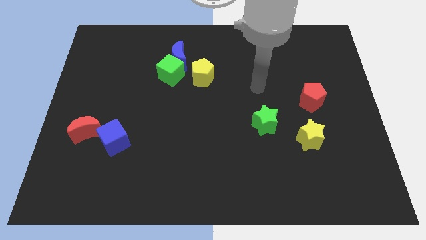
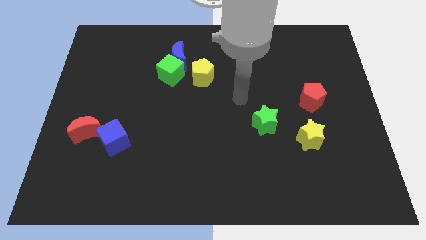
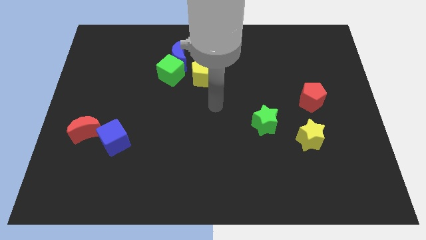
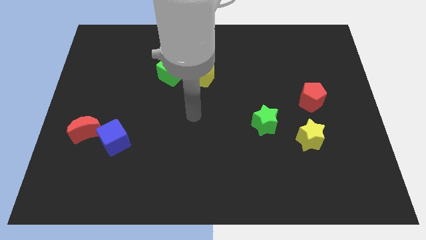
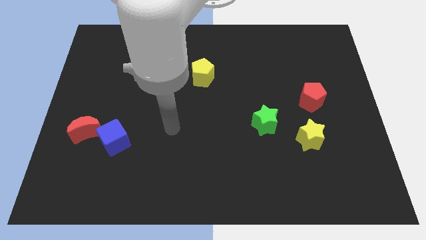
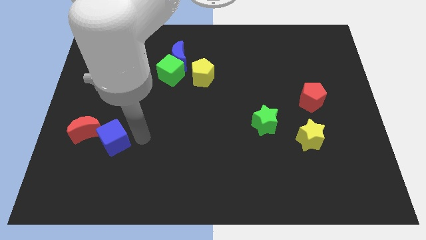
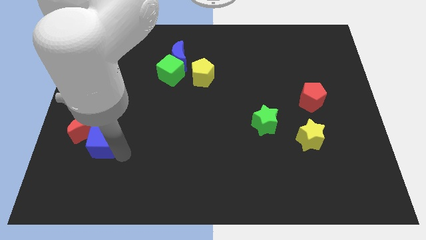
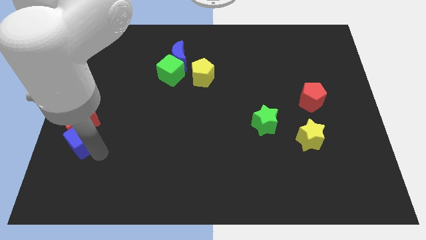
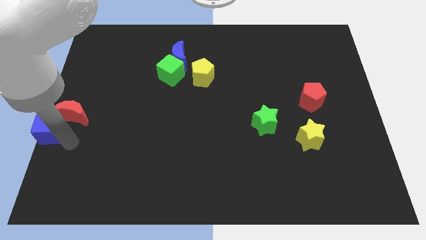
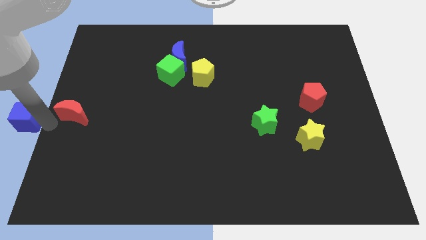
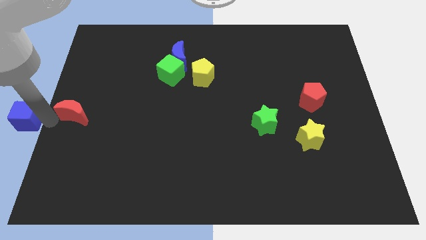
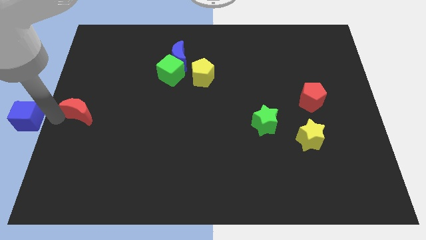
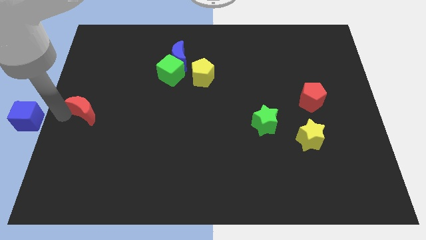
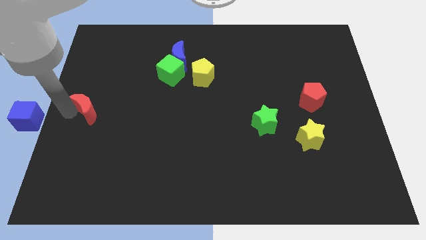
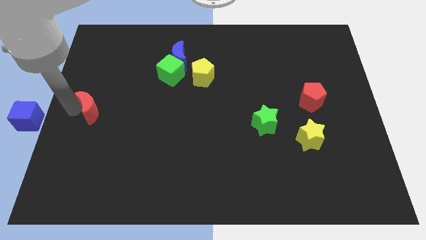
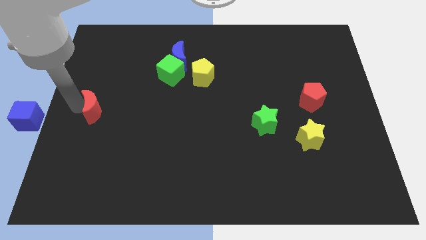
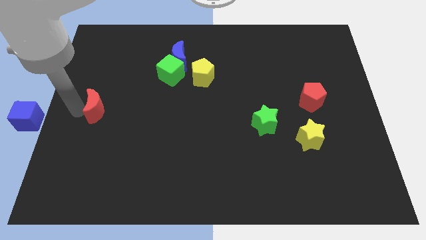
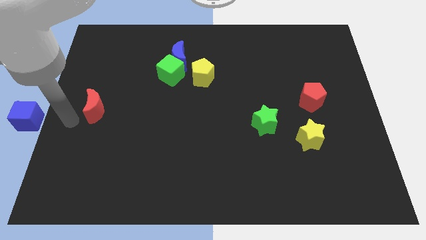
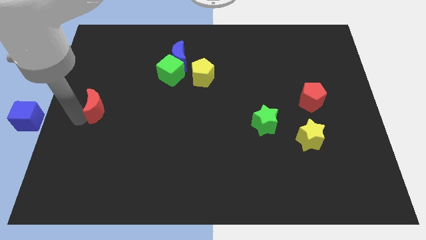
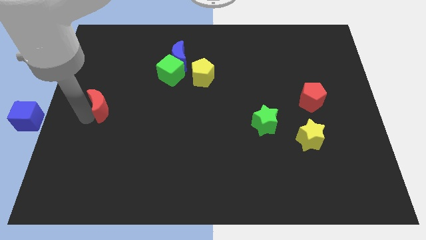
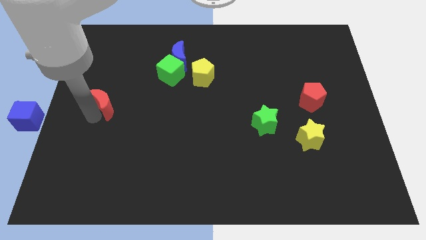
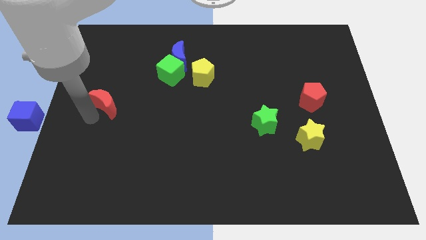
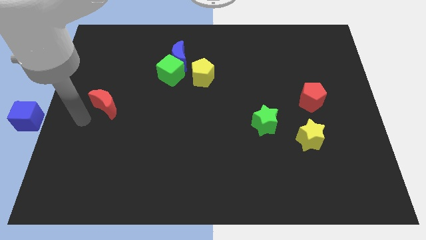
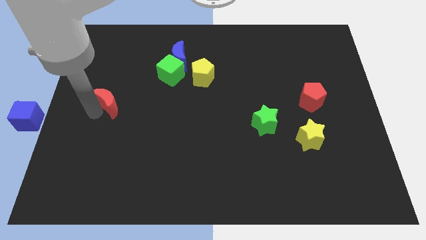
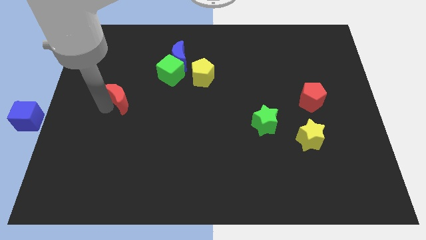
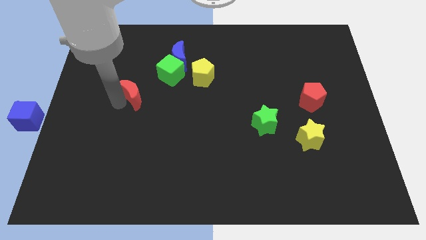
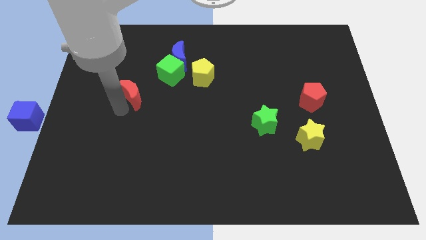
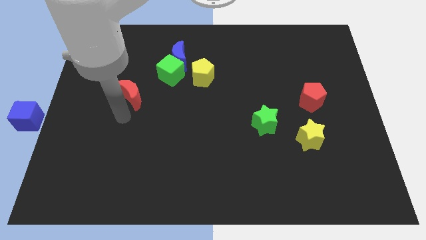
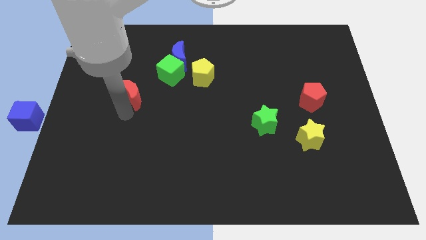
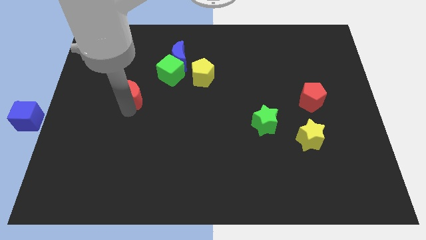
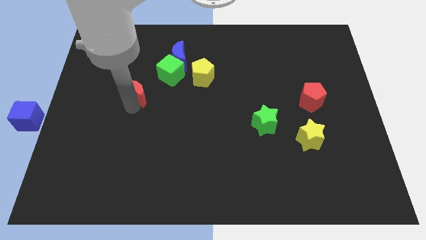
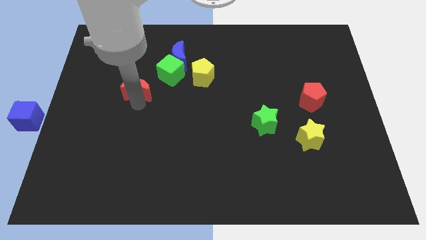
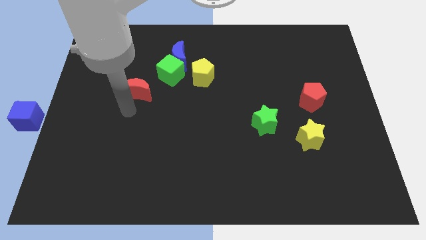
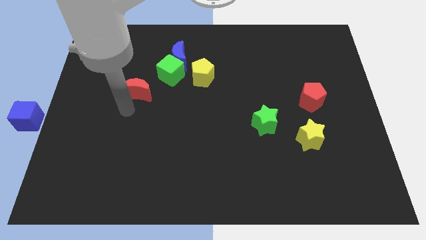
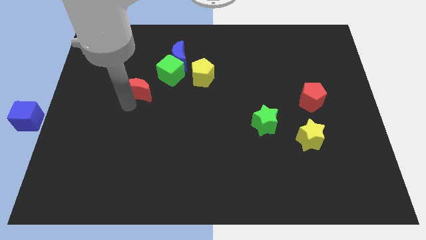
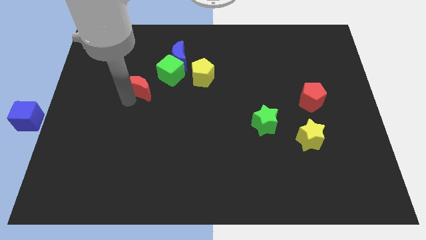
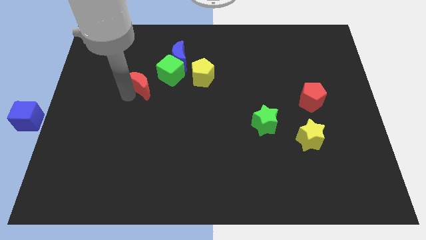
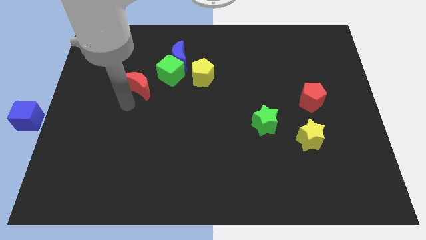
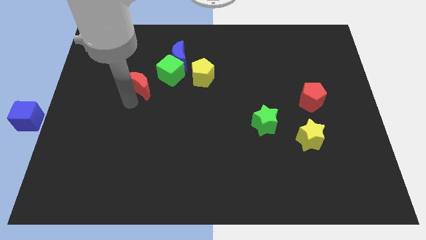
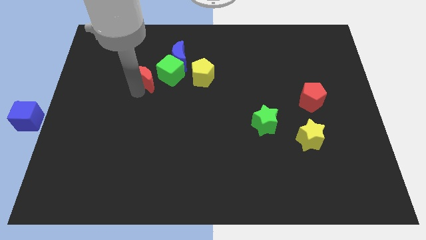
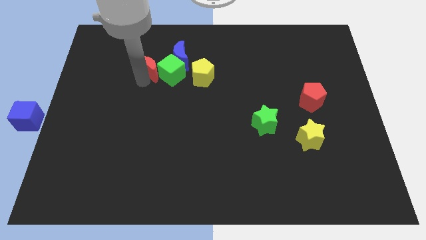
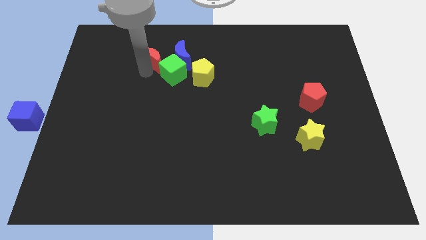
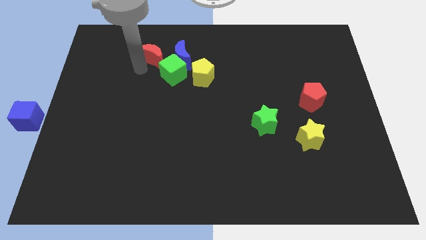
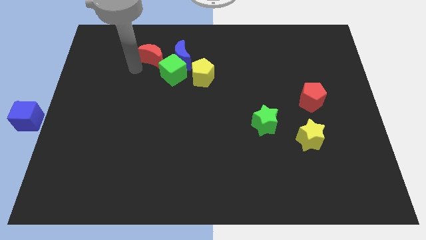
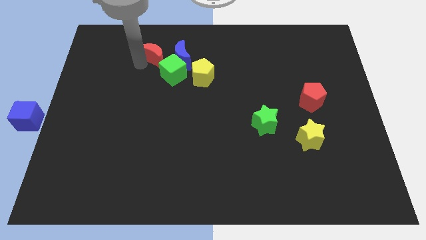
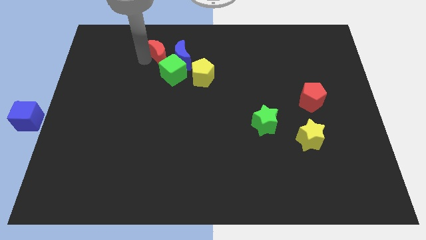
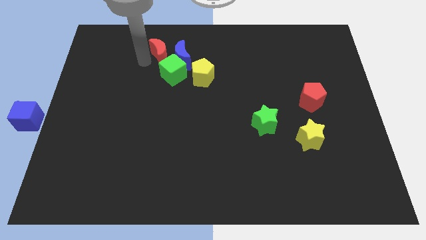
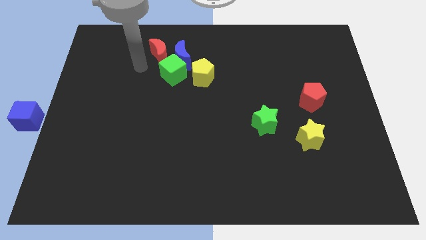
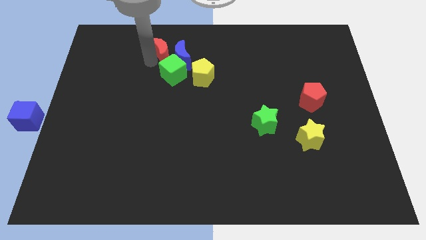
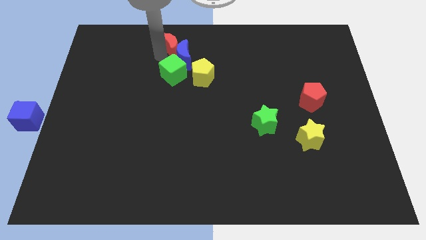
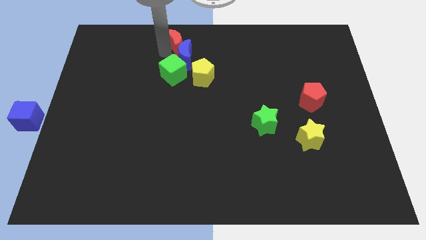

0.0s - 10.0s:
put the red moon to the top side

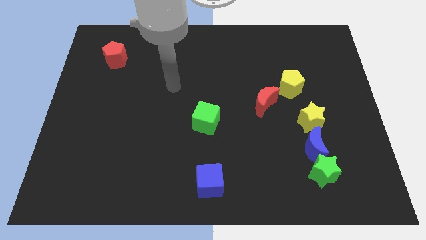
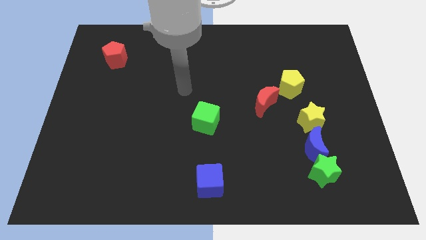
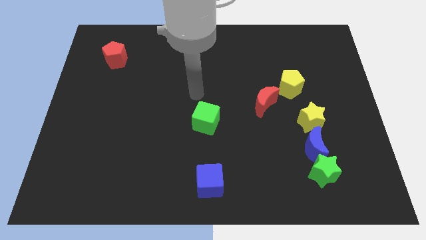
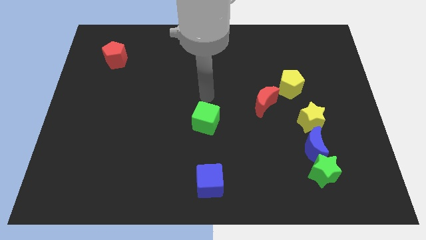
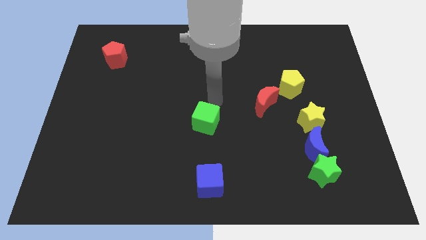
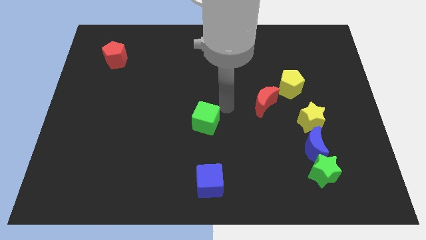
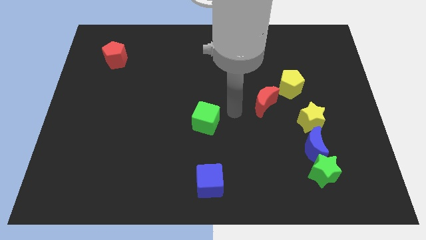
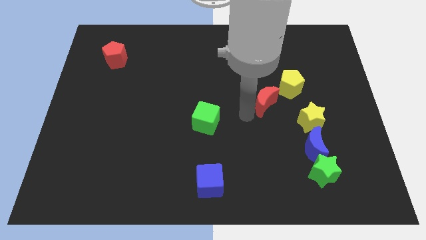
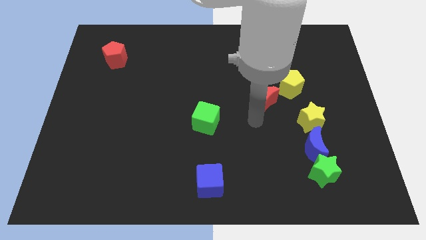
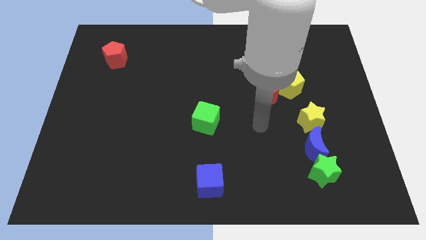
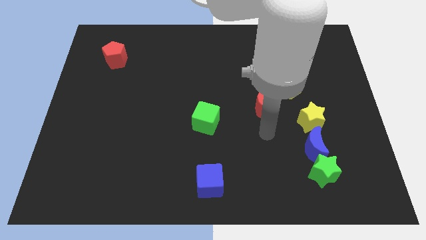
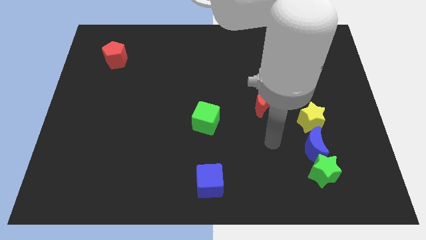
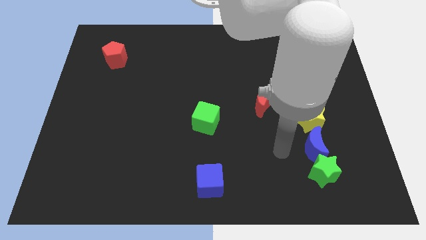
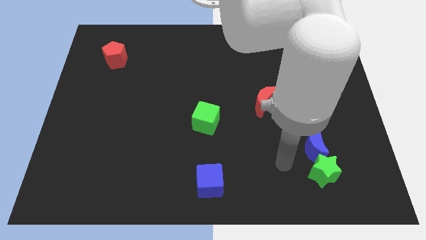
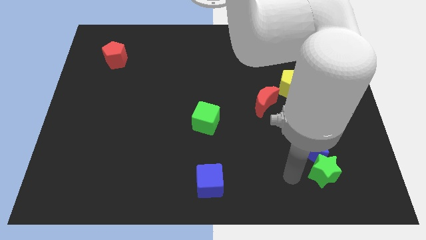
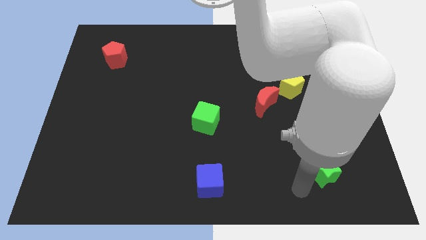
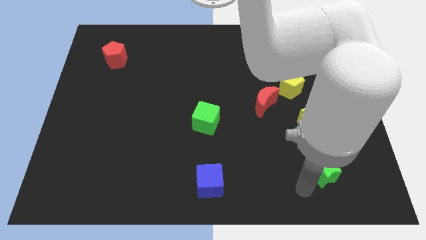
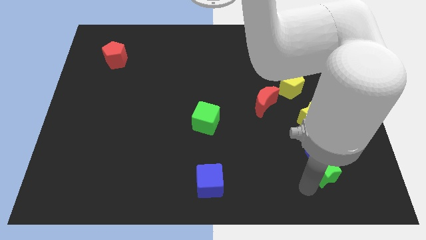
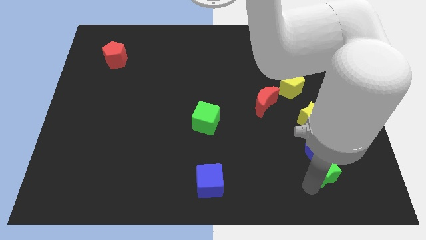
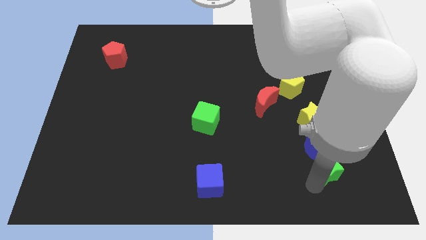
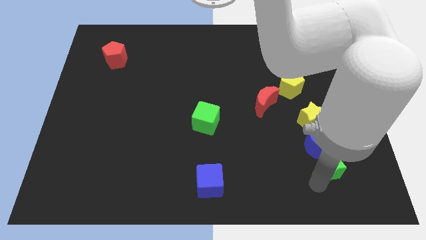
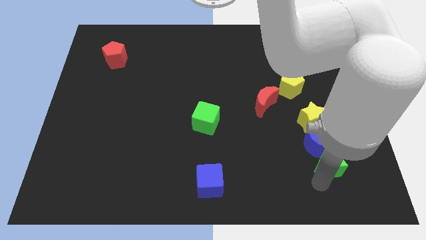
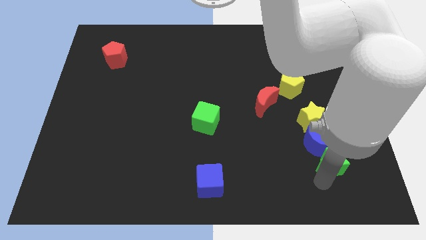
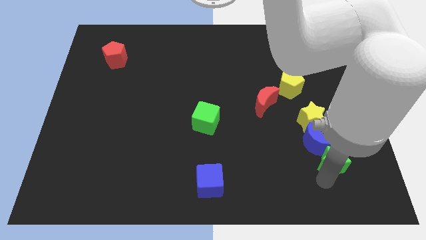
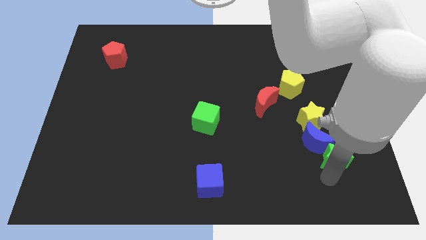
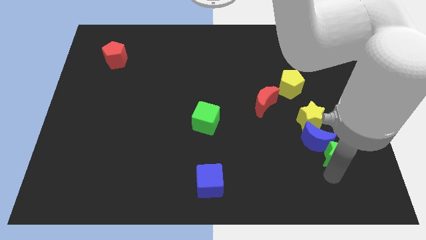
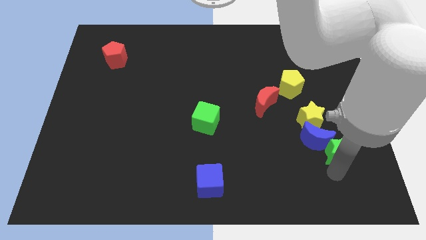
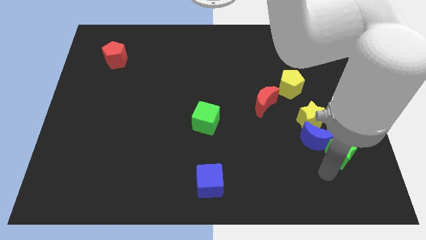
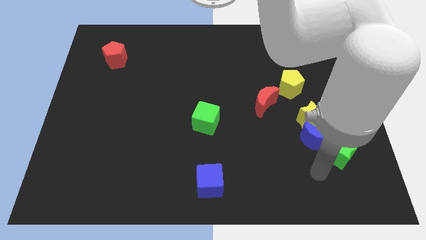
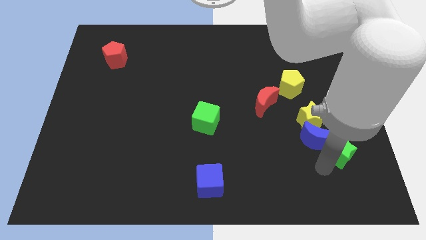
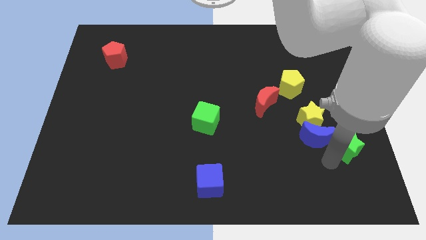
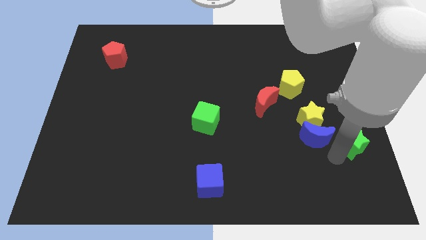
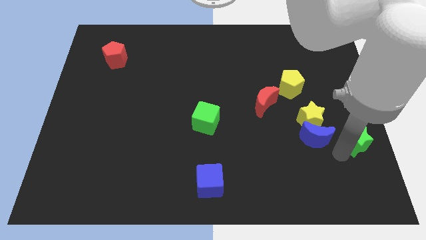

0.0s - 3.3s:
push the green star to the center right
